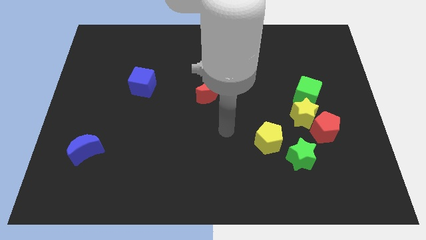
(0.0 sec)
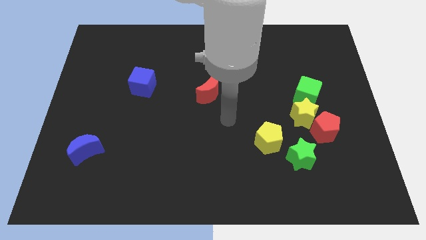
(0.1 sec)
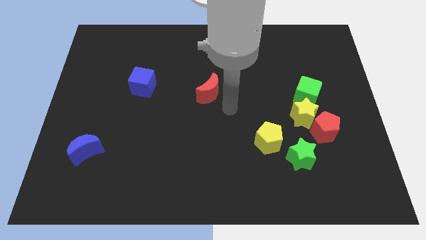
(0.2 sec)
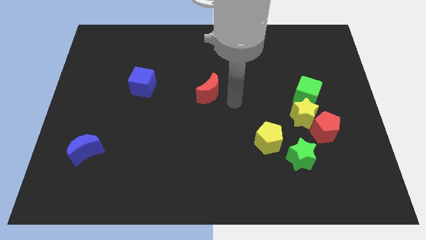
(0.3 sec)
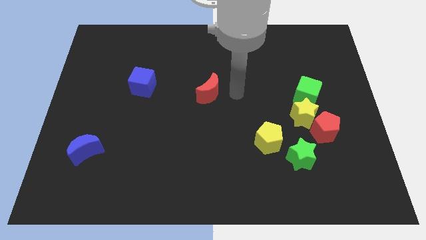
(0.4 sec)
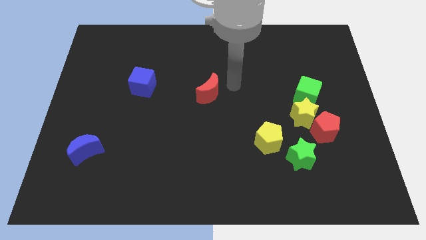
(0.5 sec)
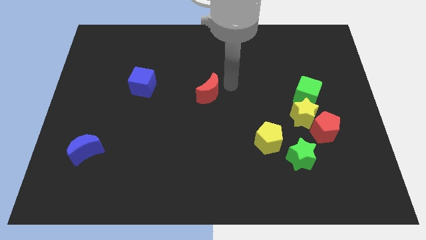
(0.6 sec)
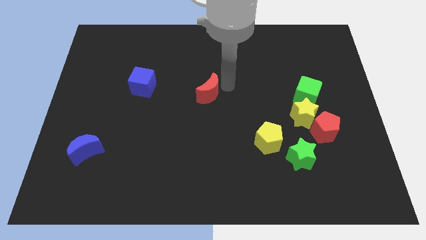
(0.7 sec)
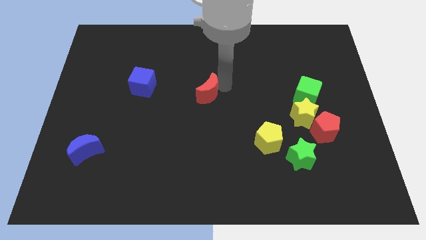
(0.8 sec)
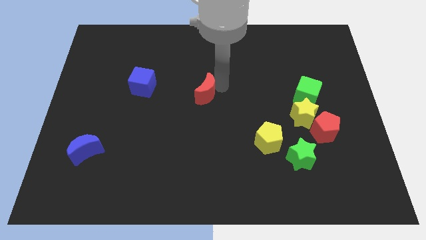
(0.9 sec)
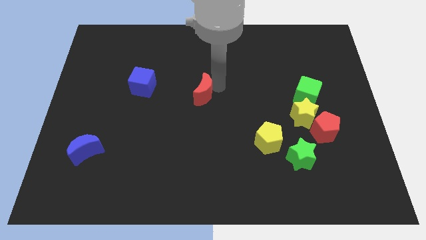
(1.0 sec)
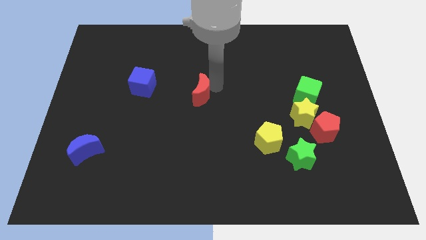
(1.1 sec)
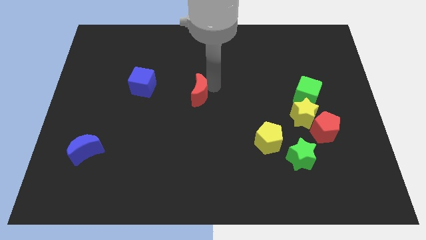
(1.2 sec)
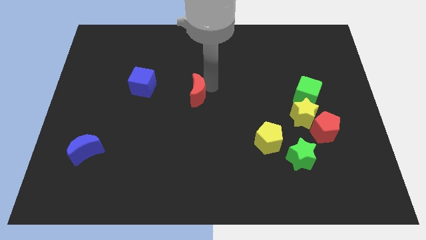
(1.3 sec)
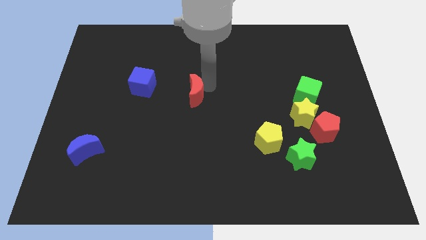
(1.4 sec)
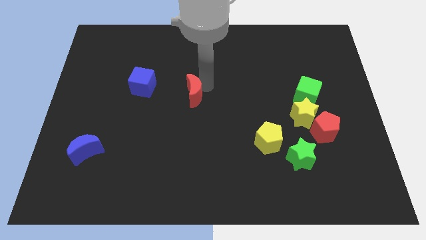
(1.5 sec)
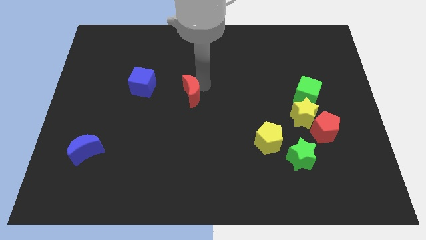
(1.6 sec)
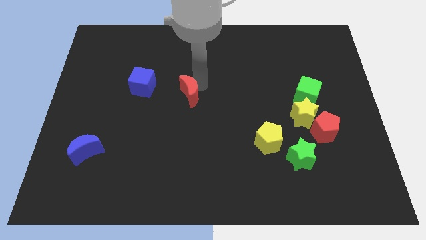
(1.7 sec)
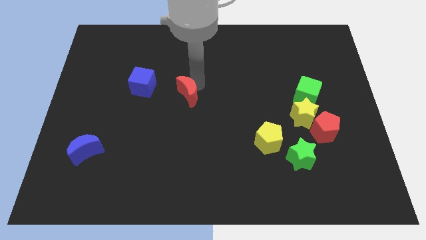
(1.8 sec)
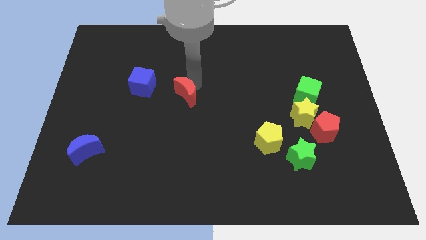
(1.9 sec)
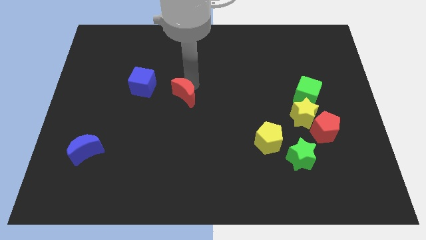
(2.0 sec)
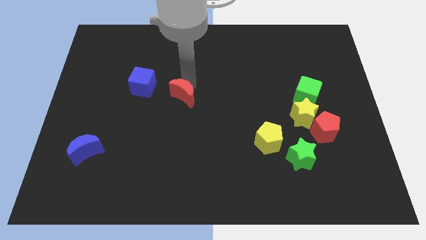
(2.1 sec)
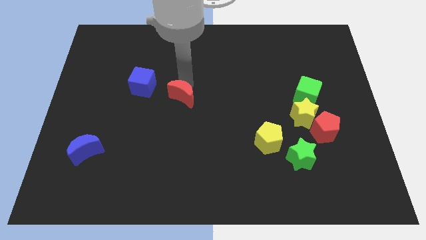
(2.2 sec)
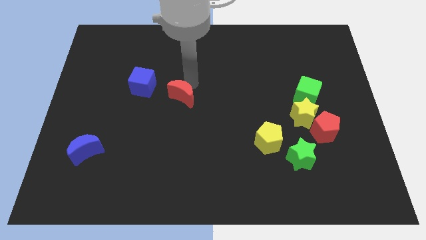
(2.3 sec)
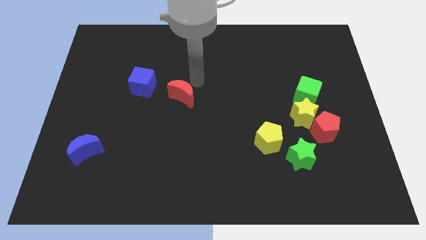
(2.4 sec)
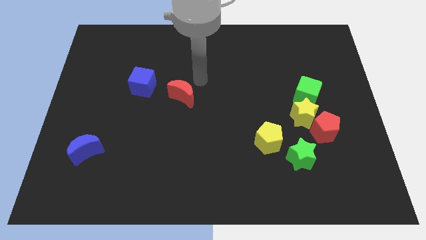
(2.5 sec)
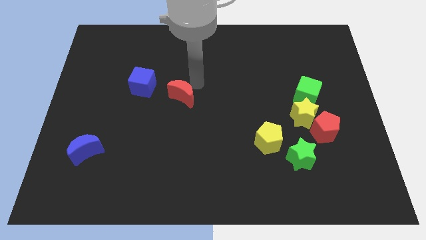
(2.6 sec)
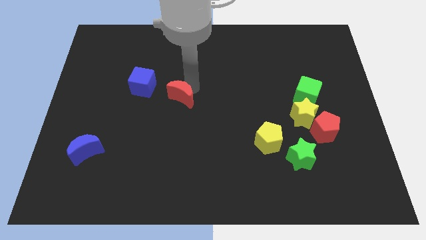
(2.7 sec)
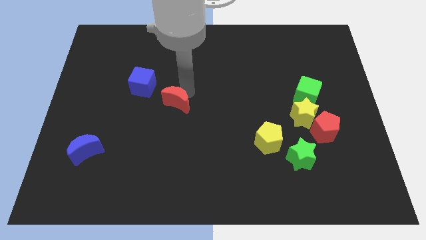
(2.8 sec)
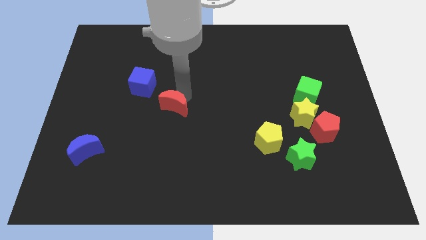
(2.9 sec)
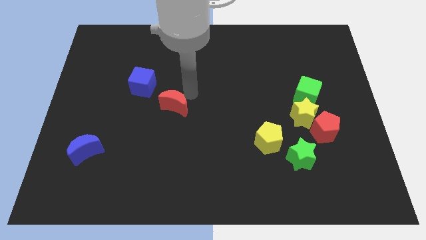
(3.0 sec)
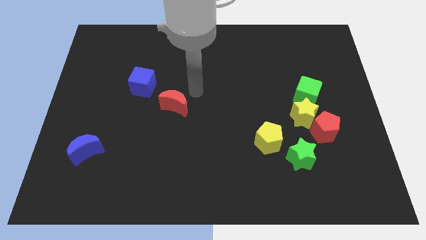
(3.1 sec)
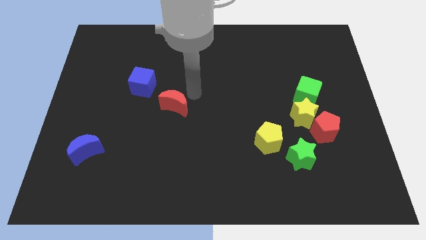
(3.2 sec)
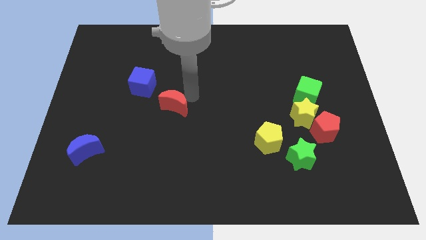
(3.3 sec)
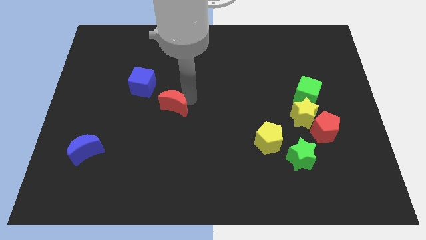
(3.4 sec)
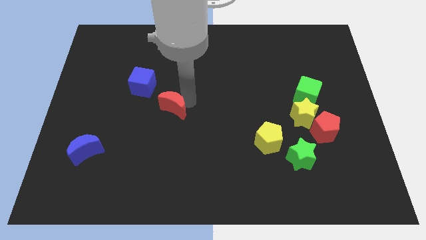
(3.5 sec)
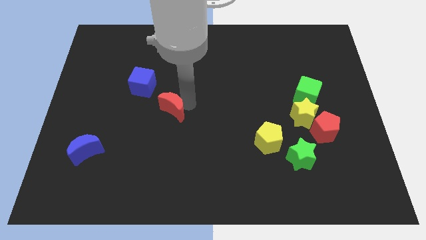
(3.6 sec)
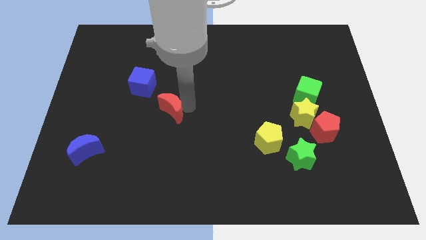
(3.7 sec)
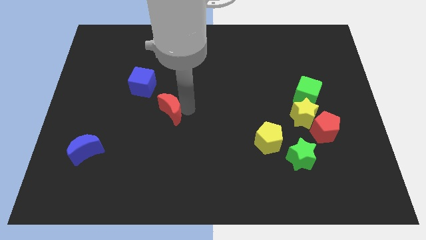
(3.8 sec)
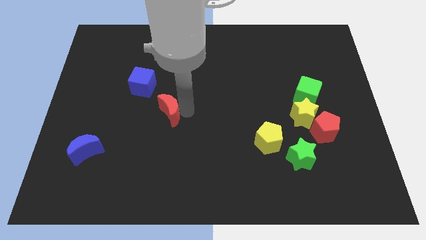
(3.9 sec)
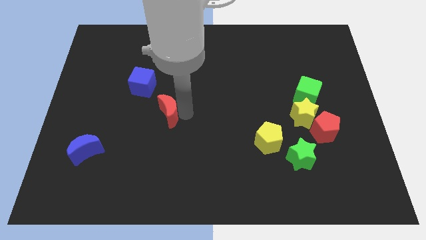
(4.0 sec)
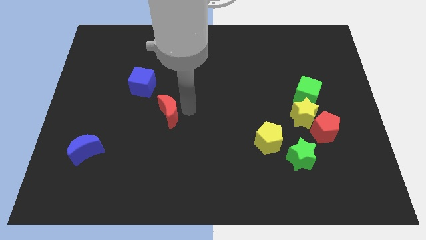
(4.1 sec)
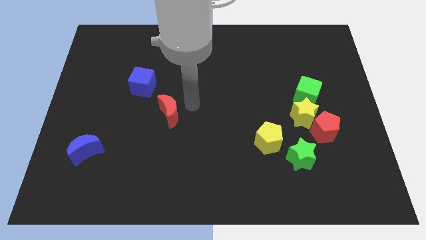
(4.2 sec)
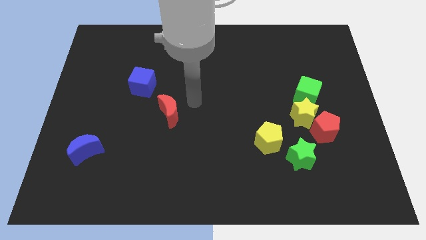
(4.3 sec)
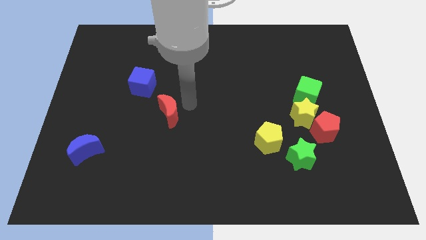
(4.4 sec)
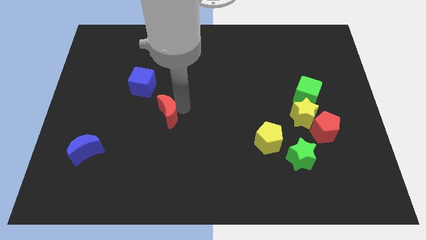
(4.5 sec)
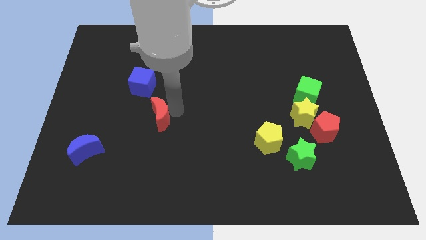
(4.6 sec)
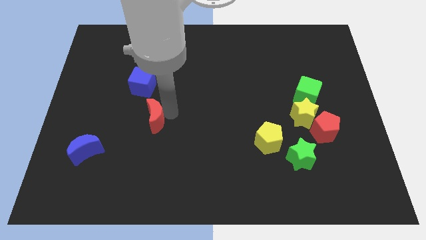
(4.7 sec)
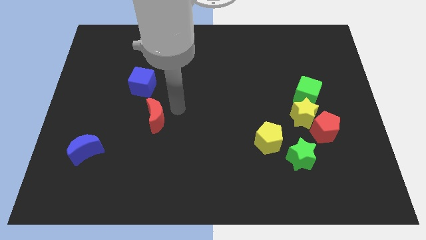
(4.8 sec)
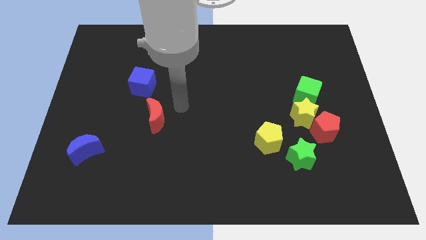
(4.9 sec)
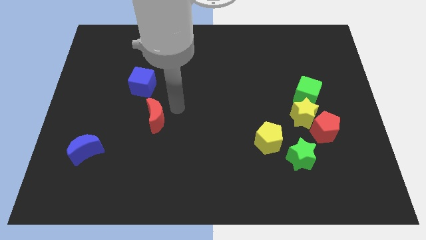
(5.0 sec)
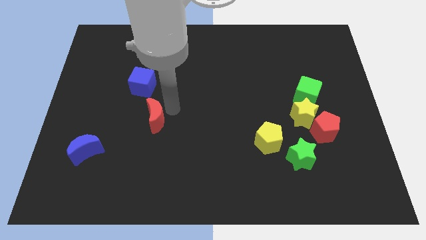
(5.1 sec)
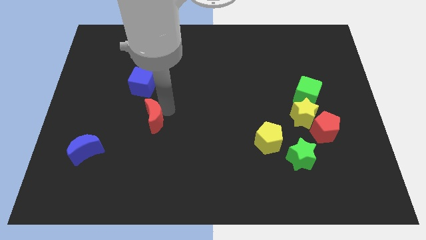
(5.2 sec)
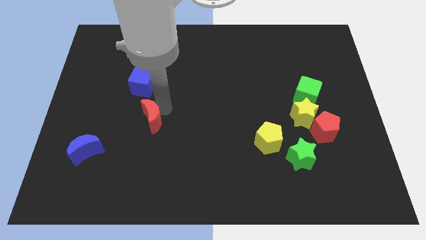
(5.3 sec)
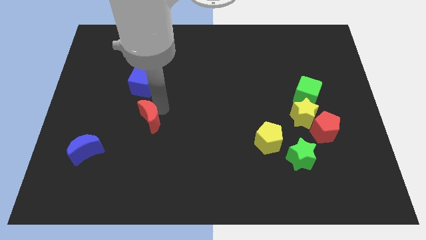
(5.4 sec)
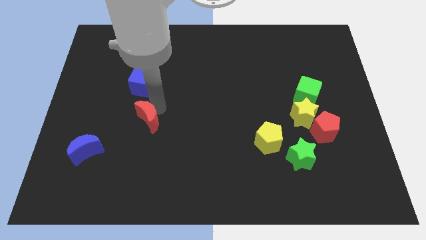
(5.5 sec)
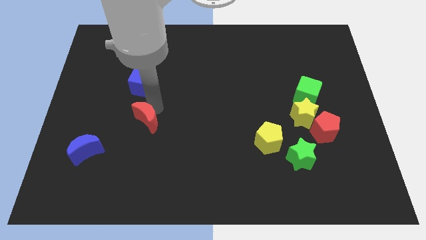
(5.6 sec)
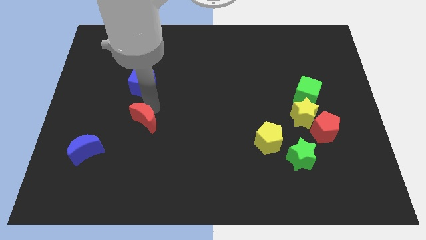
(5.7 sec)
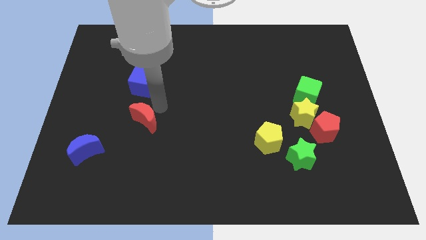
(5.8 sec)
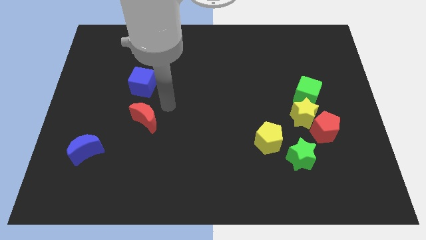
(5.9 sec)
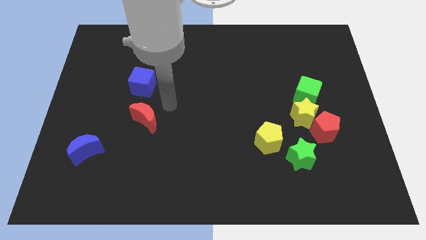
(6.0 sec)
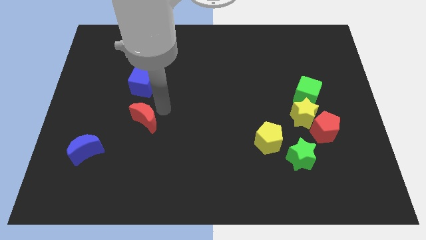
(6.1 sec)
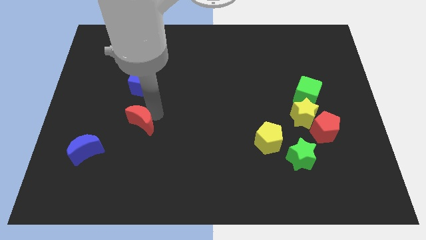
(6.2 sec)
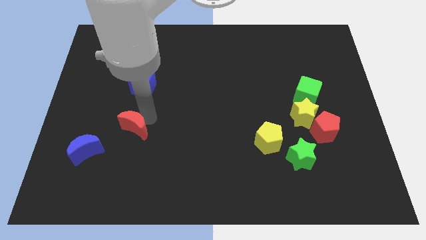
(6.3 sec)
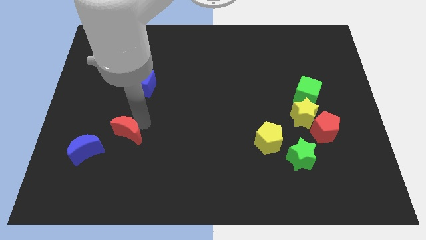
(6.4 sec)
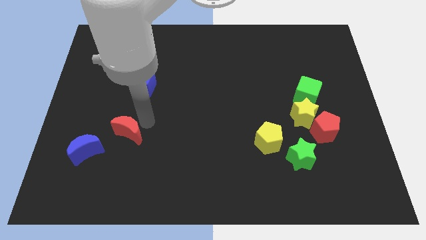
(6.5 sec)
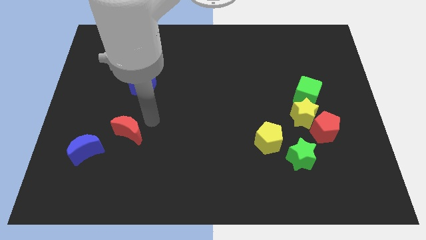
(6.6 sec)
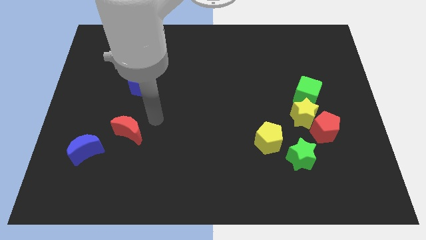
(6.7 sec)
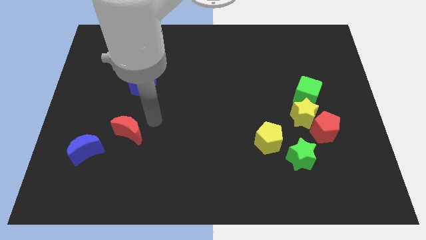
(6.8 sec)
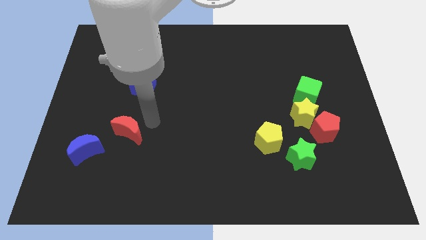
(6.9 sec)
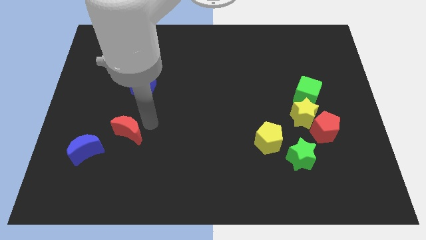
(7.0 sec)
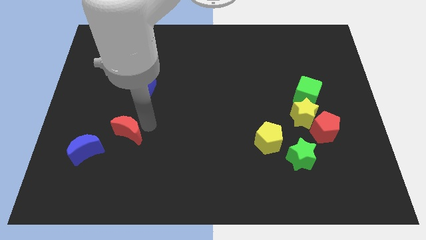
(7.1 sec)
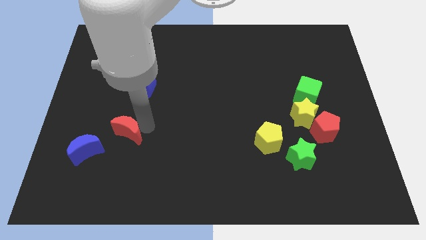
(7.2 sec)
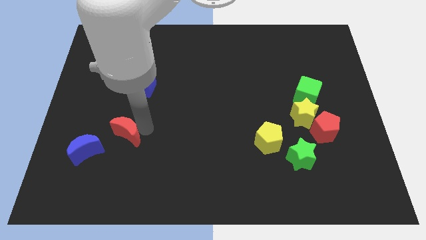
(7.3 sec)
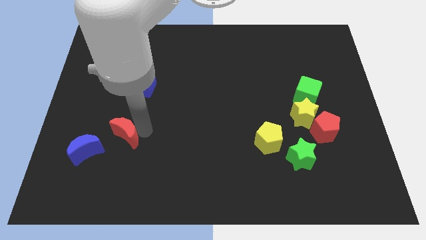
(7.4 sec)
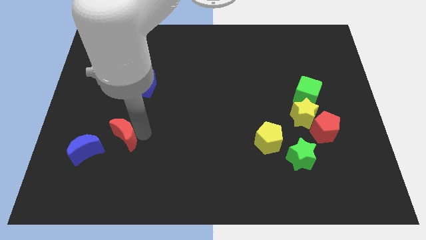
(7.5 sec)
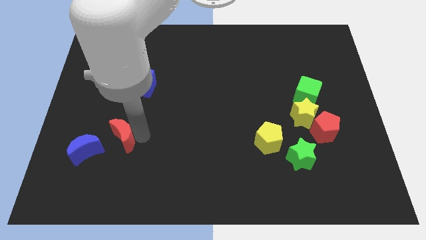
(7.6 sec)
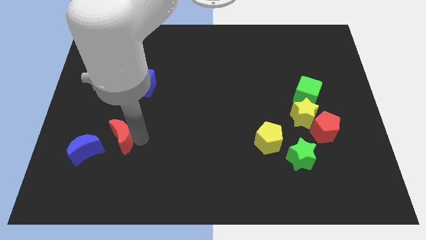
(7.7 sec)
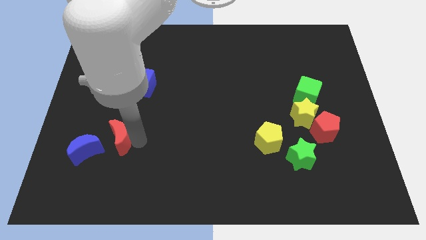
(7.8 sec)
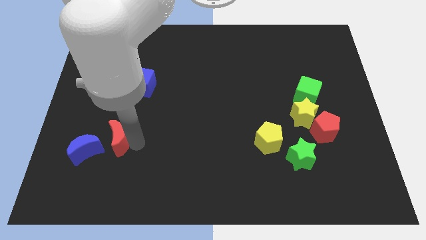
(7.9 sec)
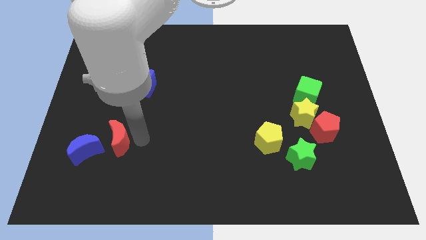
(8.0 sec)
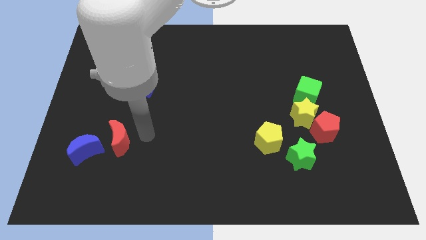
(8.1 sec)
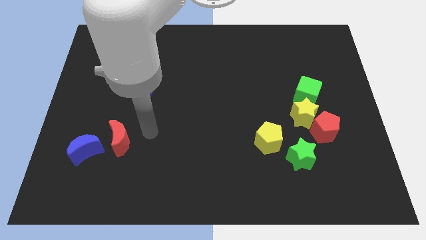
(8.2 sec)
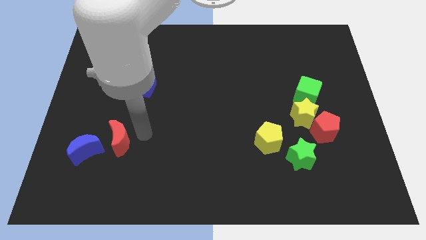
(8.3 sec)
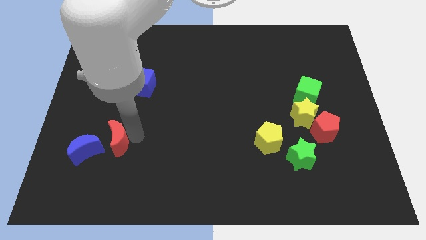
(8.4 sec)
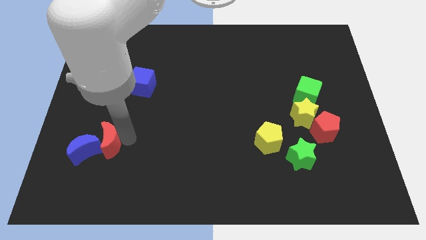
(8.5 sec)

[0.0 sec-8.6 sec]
slide the red moon next to the blue moon
